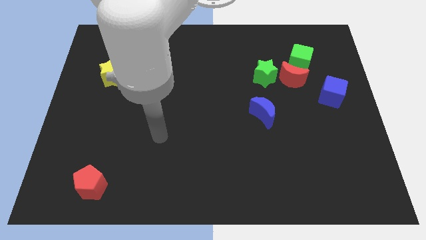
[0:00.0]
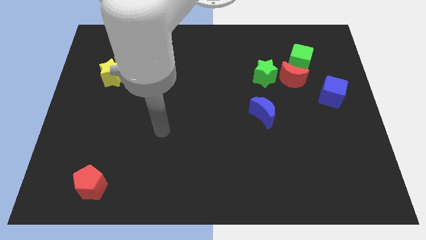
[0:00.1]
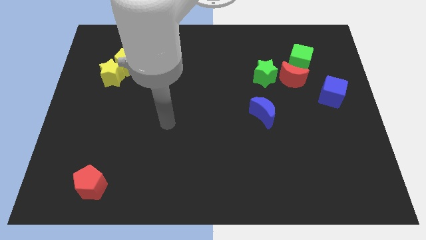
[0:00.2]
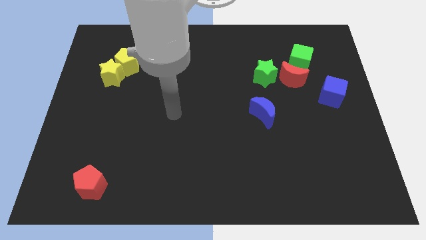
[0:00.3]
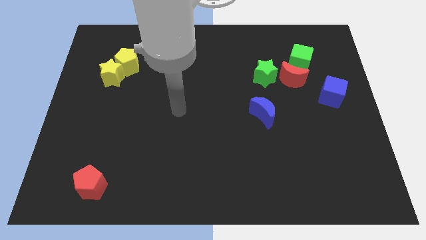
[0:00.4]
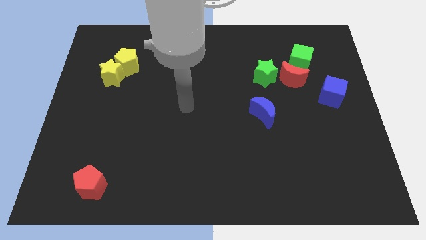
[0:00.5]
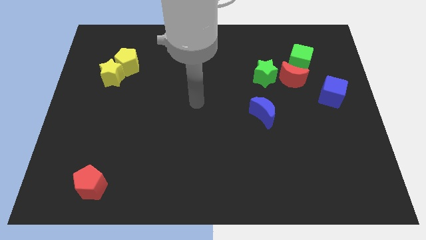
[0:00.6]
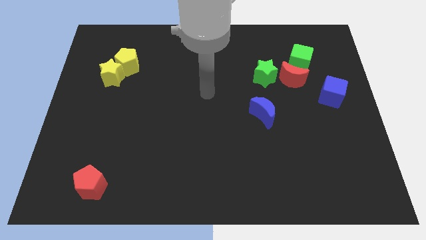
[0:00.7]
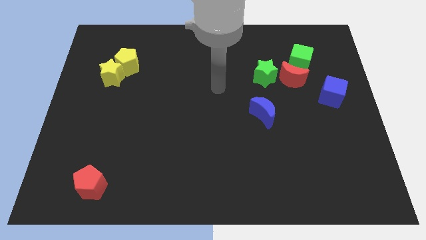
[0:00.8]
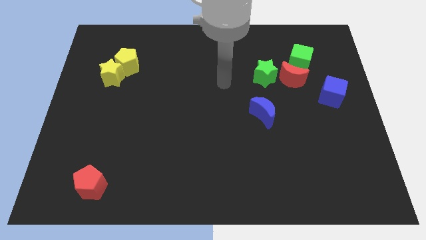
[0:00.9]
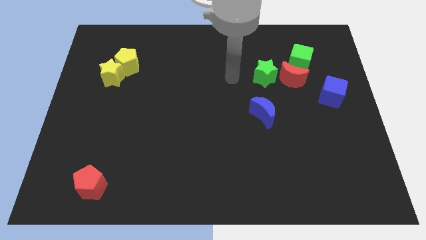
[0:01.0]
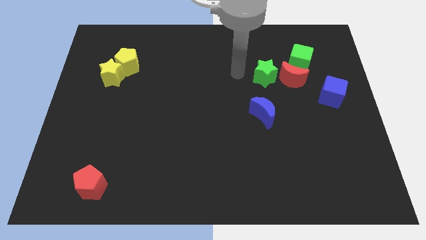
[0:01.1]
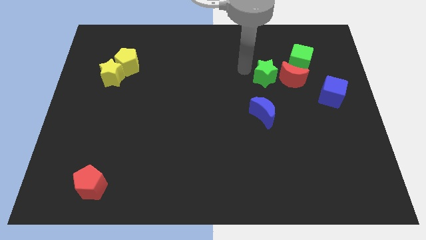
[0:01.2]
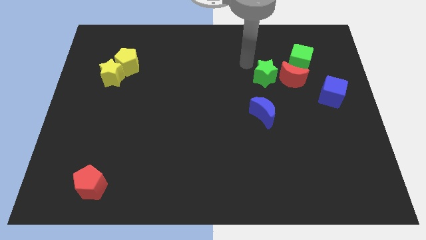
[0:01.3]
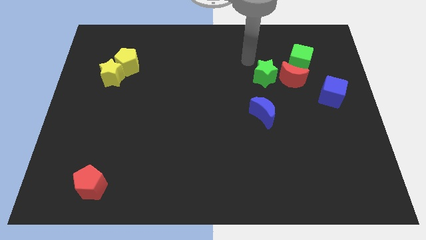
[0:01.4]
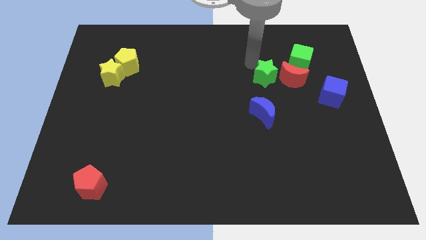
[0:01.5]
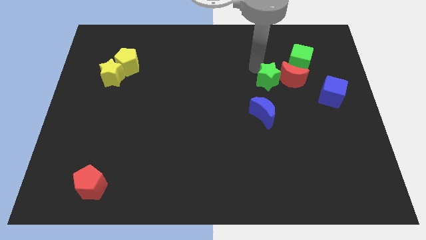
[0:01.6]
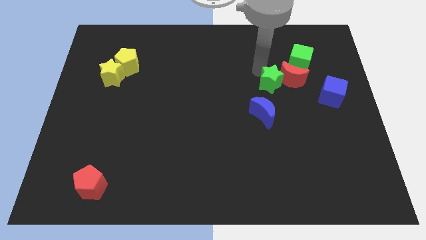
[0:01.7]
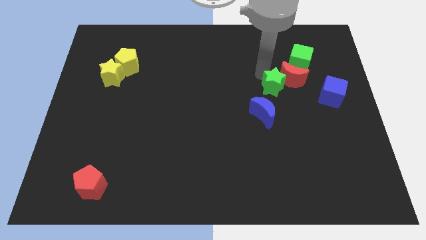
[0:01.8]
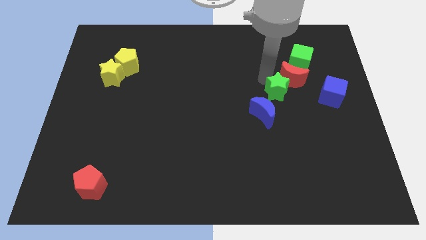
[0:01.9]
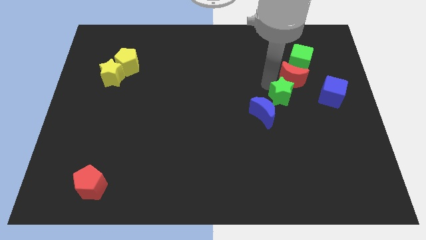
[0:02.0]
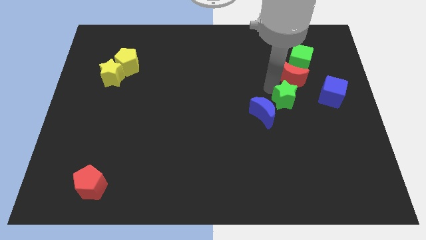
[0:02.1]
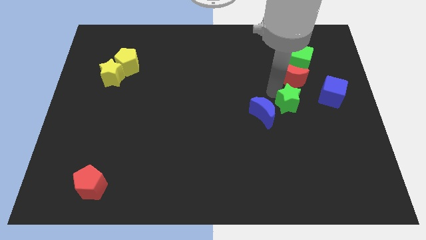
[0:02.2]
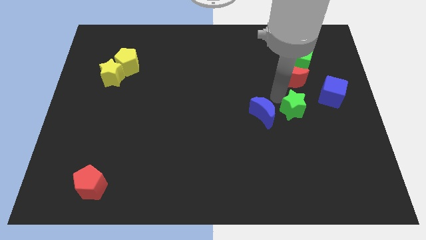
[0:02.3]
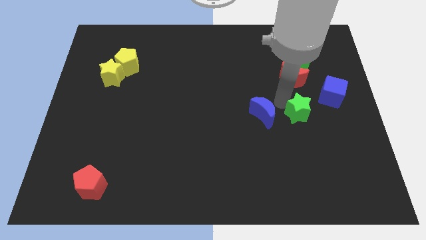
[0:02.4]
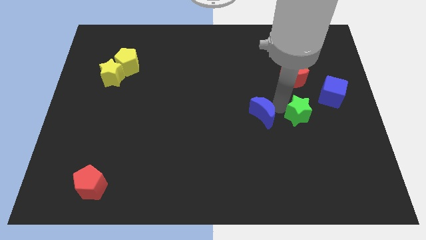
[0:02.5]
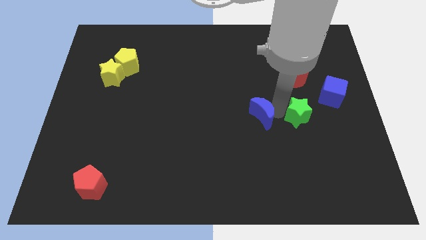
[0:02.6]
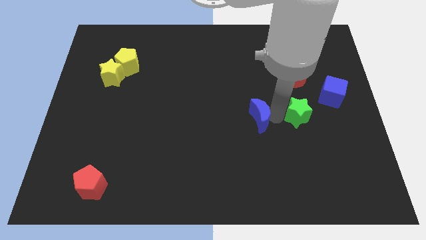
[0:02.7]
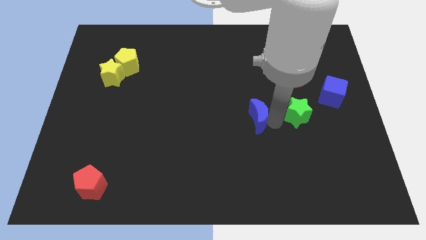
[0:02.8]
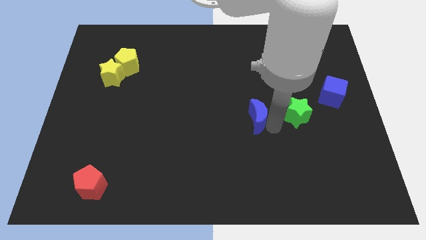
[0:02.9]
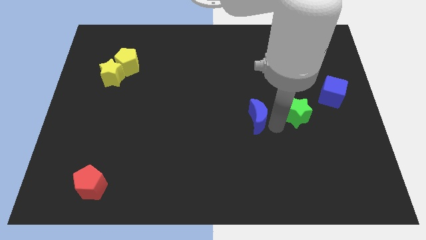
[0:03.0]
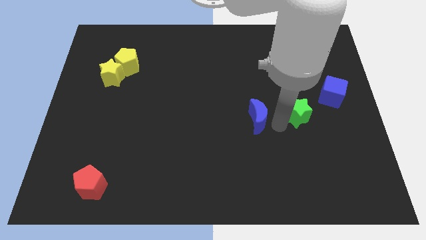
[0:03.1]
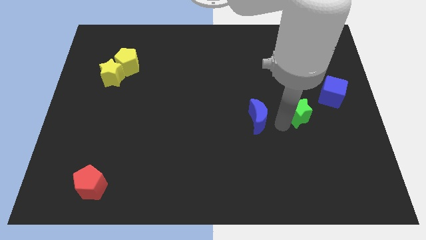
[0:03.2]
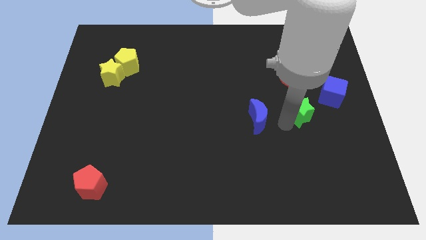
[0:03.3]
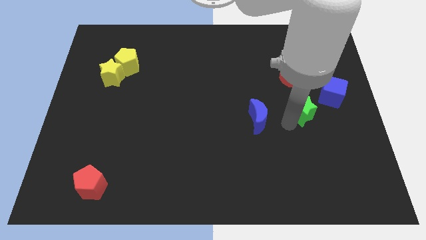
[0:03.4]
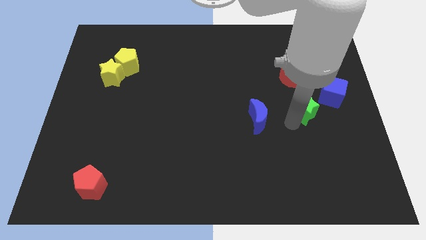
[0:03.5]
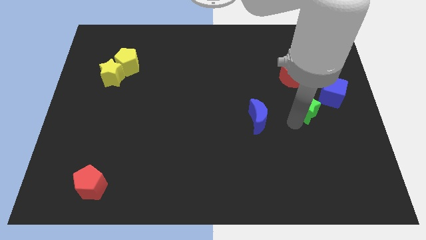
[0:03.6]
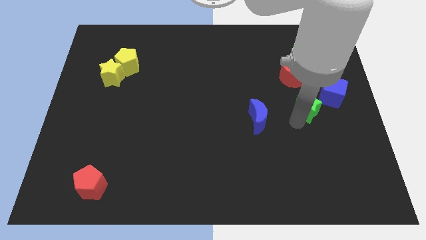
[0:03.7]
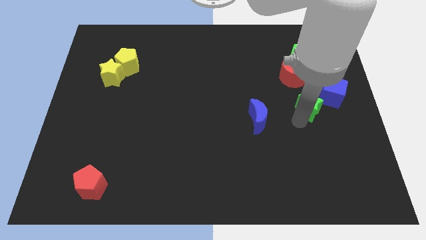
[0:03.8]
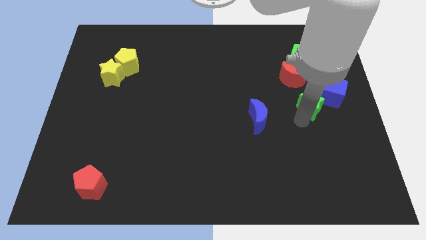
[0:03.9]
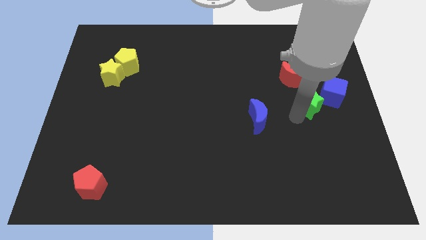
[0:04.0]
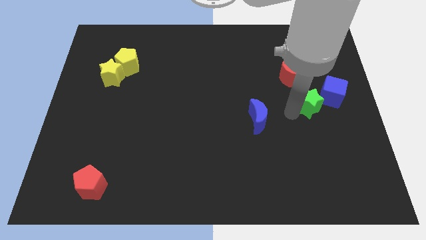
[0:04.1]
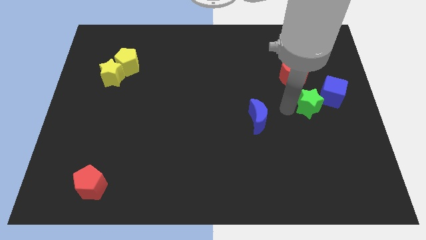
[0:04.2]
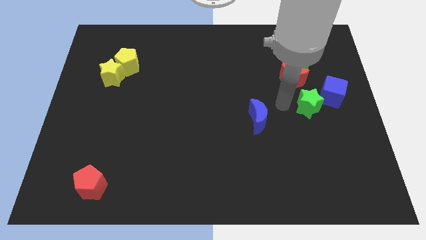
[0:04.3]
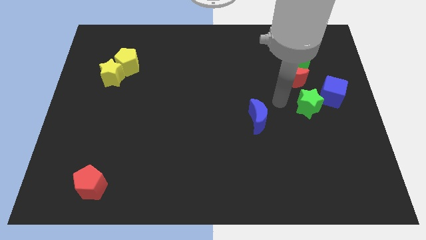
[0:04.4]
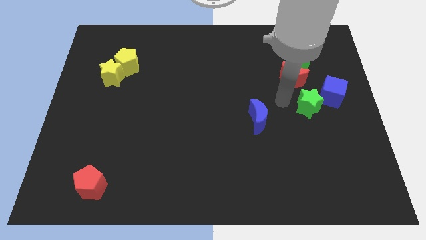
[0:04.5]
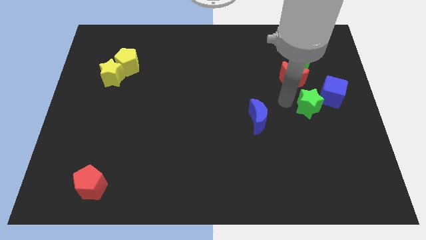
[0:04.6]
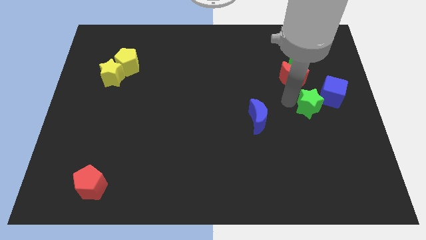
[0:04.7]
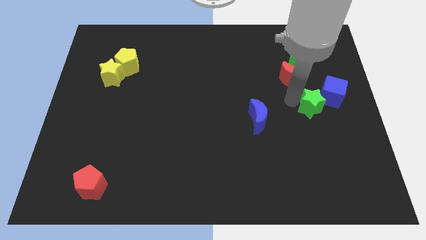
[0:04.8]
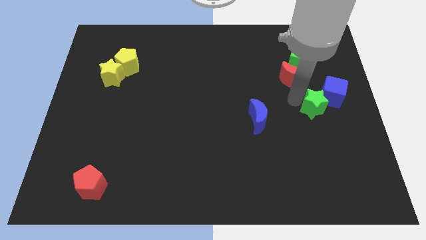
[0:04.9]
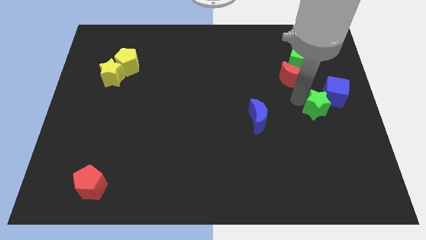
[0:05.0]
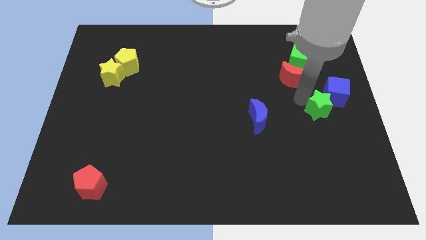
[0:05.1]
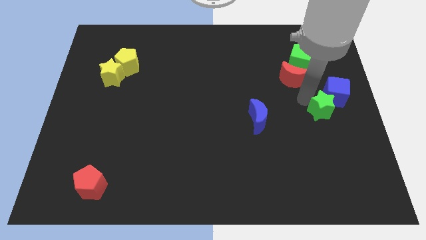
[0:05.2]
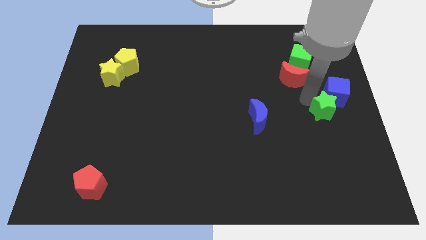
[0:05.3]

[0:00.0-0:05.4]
push the green star to the right side
